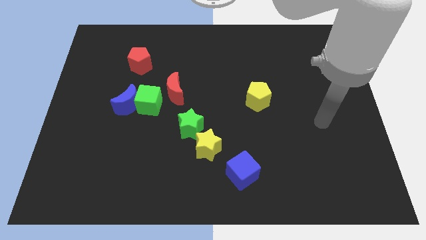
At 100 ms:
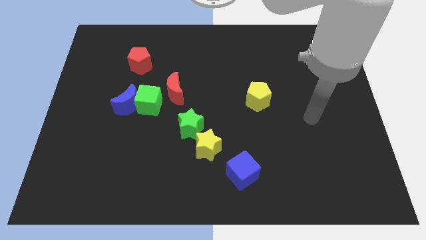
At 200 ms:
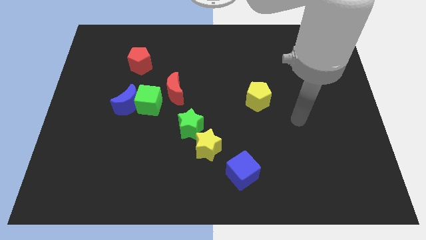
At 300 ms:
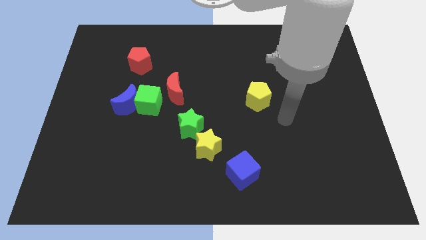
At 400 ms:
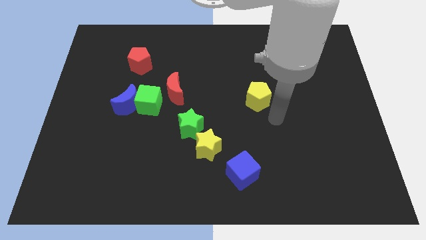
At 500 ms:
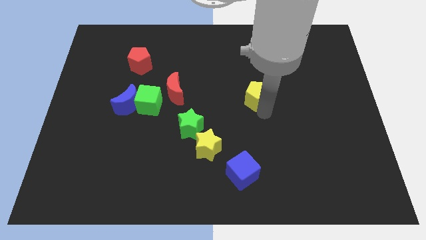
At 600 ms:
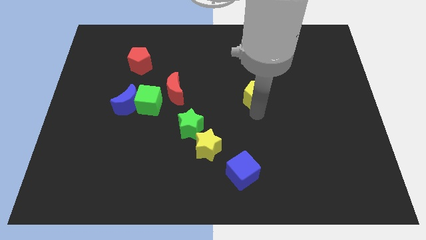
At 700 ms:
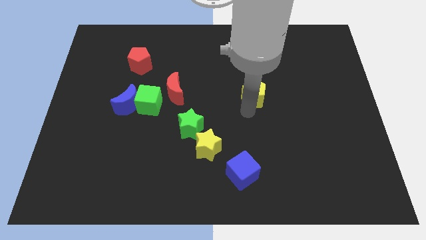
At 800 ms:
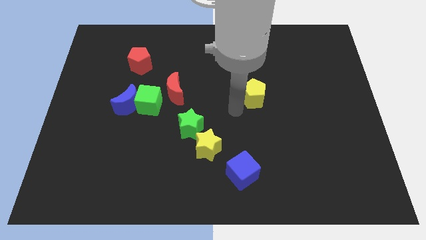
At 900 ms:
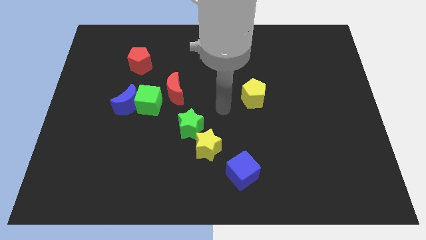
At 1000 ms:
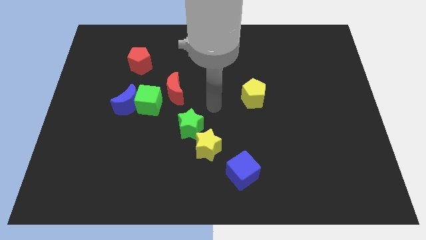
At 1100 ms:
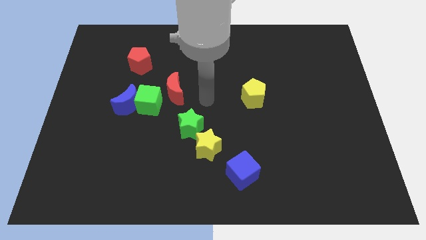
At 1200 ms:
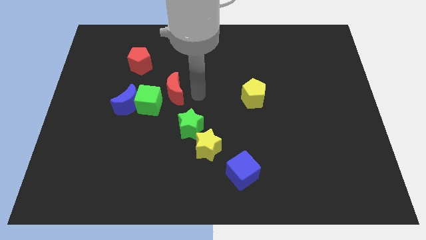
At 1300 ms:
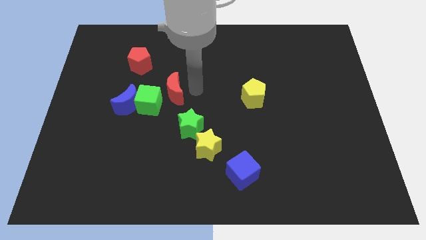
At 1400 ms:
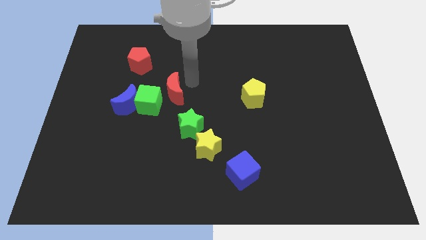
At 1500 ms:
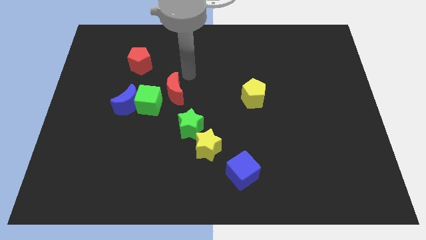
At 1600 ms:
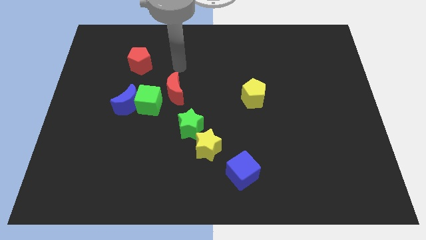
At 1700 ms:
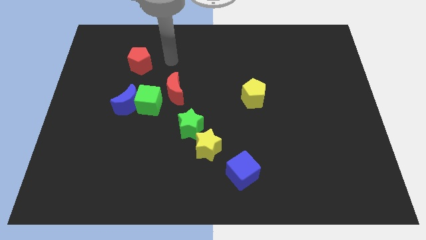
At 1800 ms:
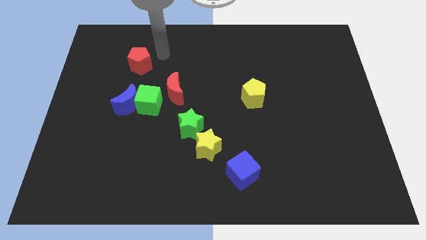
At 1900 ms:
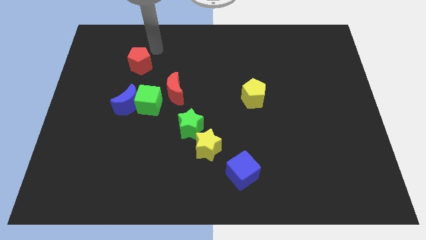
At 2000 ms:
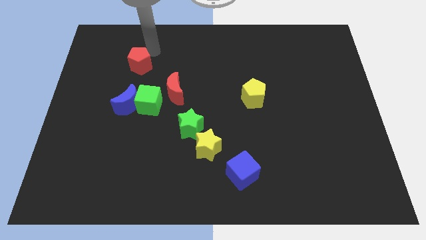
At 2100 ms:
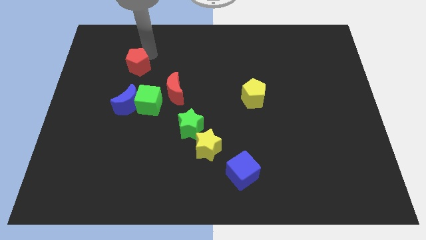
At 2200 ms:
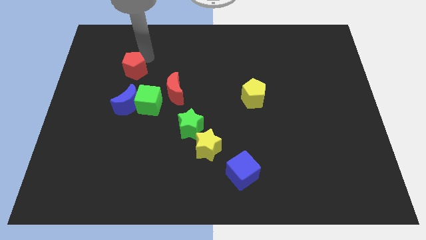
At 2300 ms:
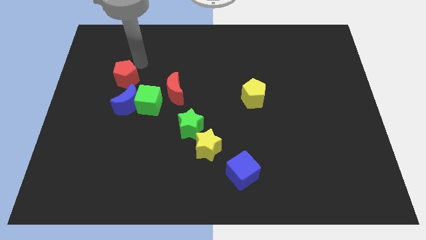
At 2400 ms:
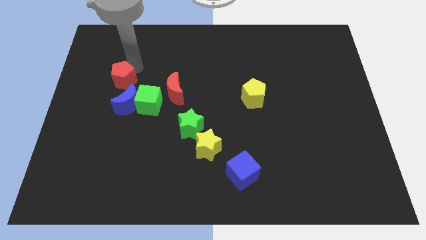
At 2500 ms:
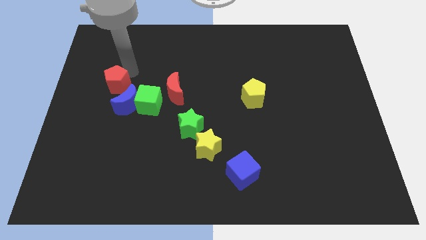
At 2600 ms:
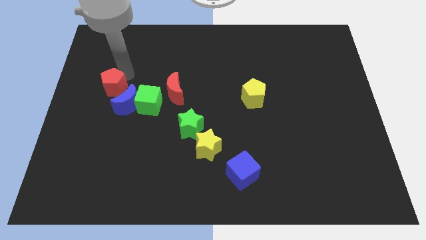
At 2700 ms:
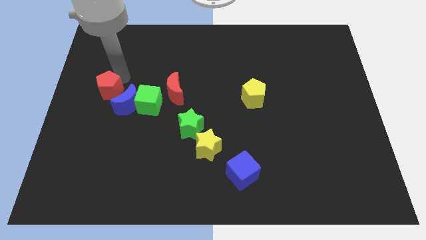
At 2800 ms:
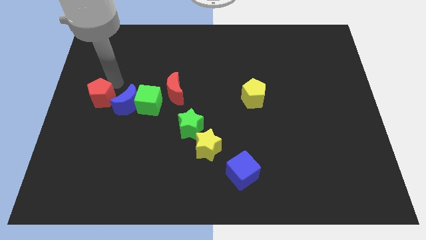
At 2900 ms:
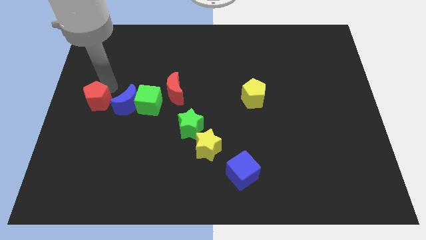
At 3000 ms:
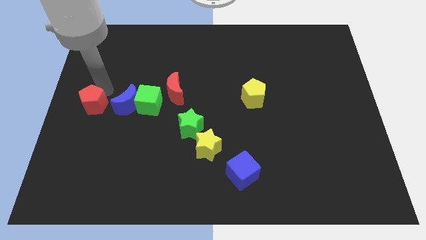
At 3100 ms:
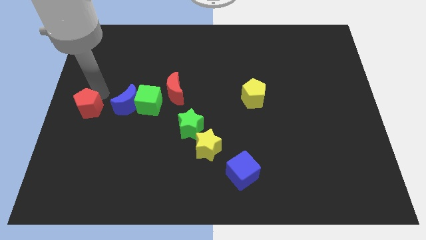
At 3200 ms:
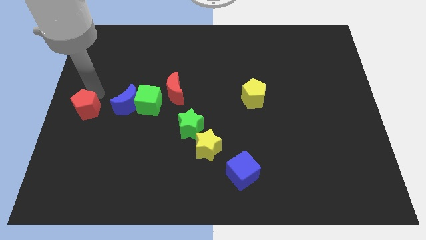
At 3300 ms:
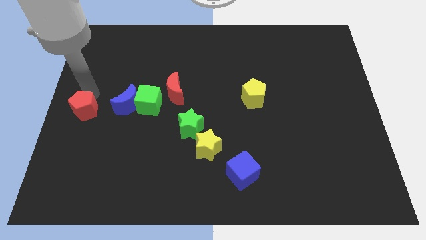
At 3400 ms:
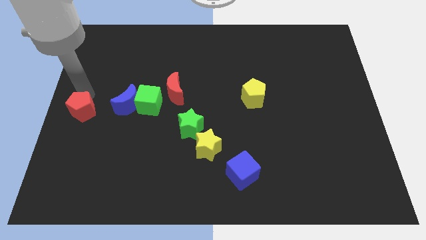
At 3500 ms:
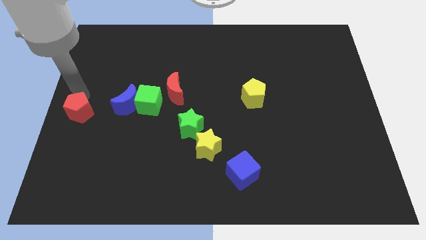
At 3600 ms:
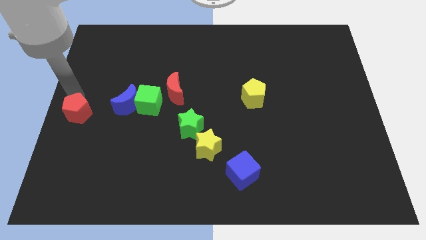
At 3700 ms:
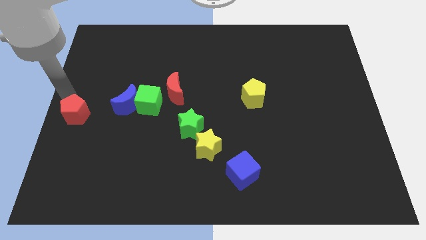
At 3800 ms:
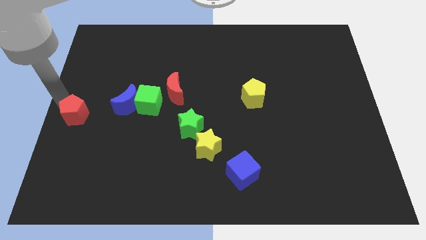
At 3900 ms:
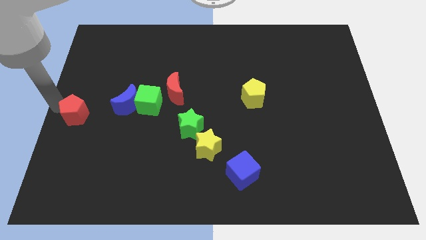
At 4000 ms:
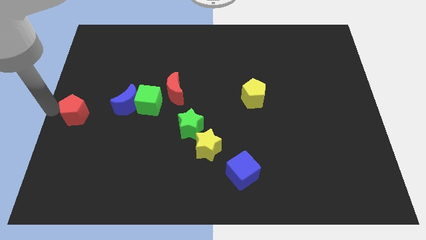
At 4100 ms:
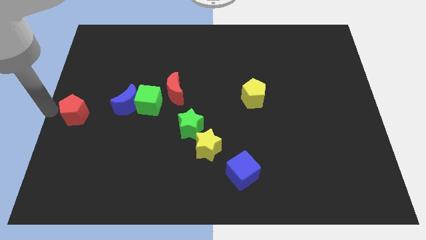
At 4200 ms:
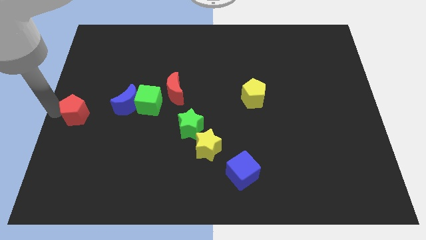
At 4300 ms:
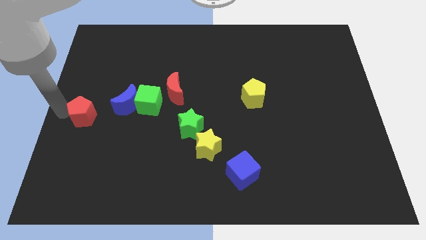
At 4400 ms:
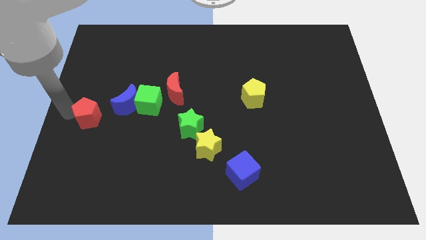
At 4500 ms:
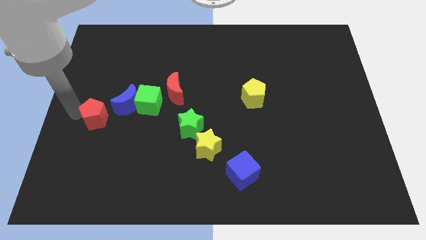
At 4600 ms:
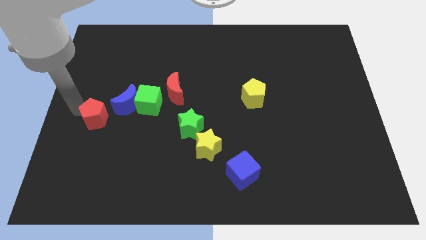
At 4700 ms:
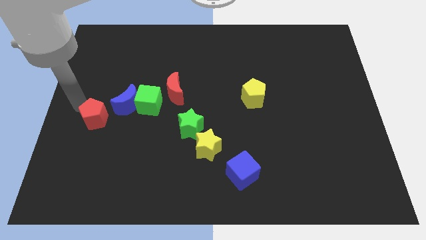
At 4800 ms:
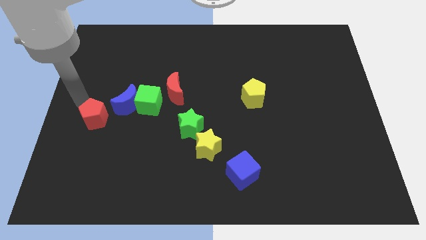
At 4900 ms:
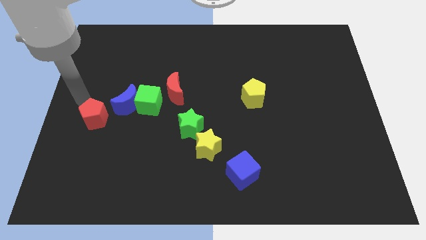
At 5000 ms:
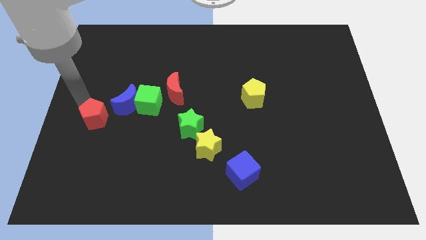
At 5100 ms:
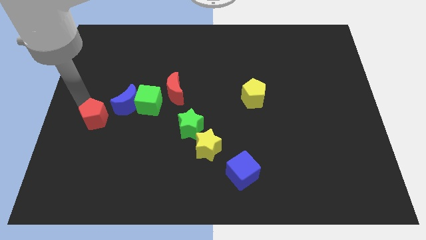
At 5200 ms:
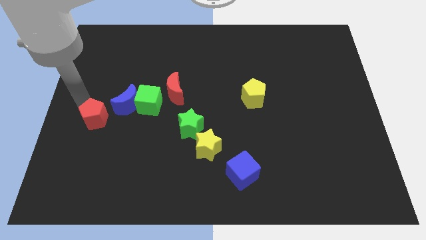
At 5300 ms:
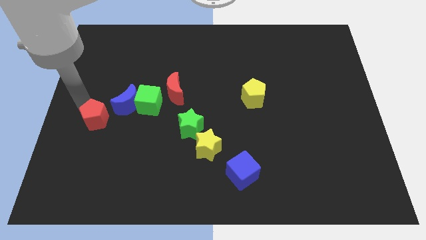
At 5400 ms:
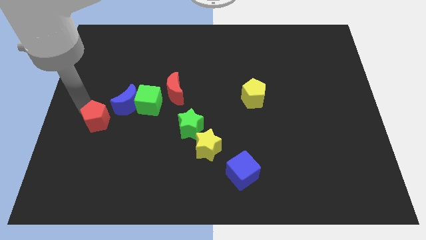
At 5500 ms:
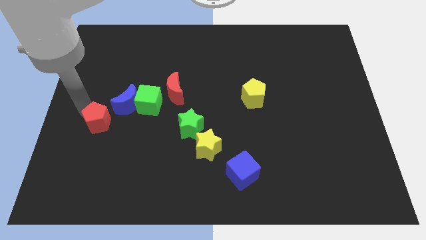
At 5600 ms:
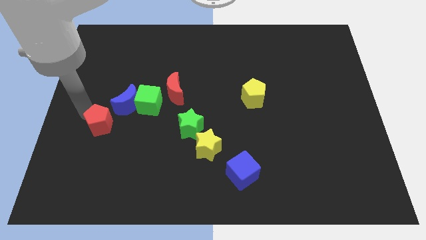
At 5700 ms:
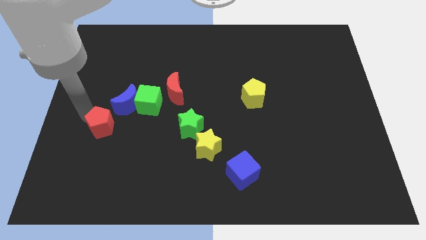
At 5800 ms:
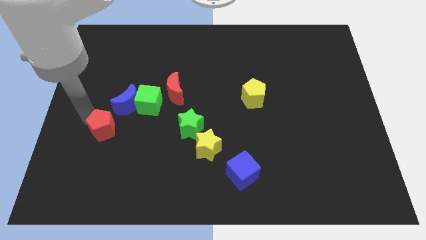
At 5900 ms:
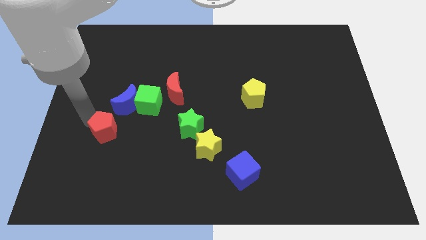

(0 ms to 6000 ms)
push the red pentagon downwards

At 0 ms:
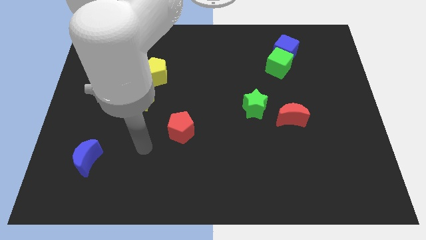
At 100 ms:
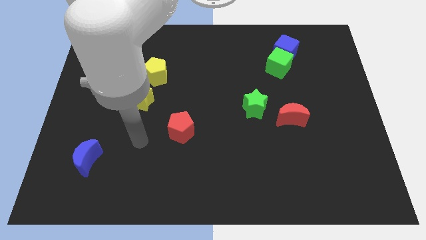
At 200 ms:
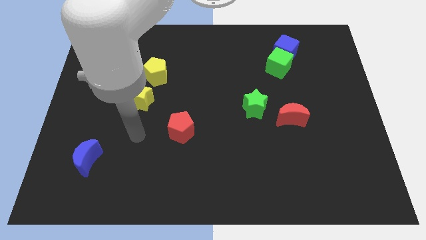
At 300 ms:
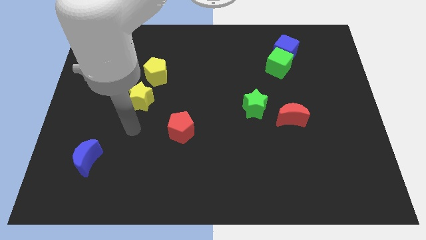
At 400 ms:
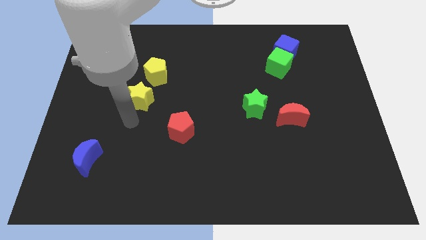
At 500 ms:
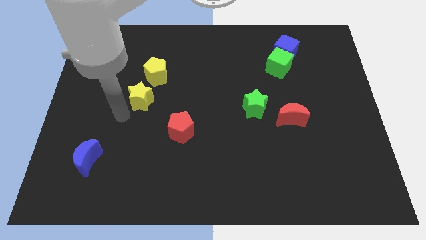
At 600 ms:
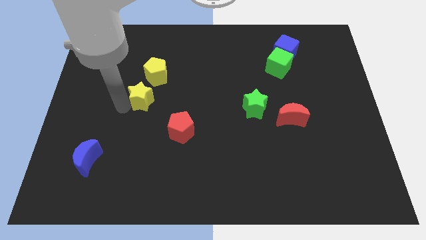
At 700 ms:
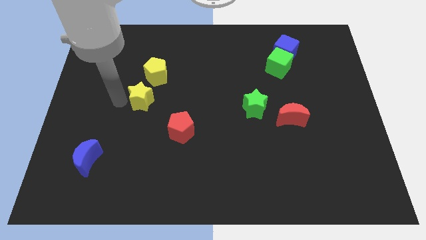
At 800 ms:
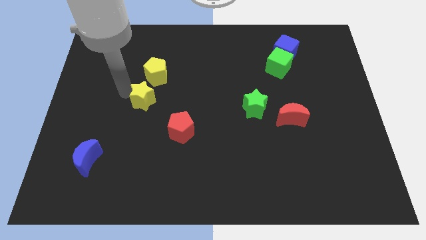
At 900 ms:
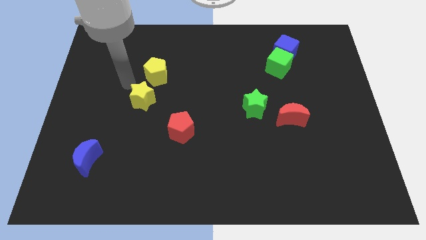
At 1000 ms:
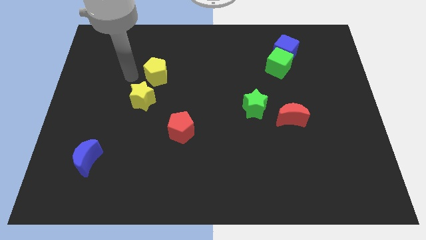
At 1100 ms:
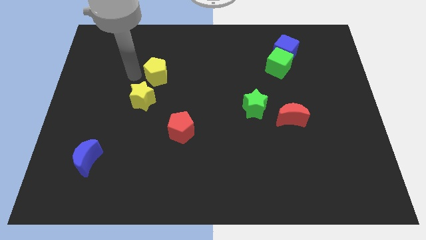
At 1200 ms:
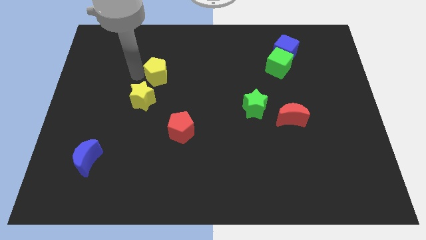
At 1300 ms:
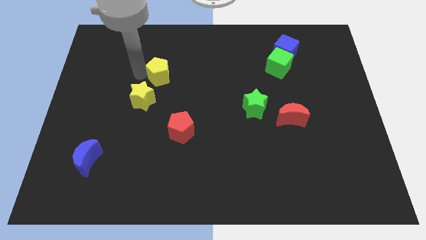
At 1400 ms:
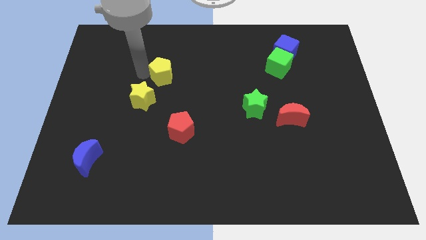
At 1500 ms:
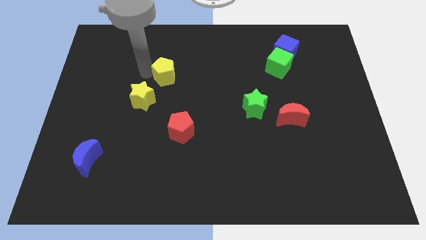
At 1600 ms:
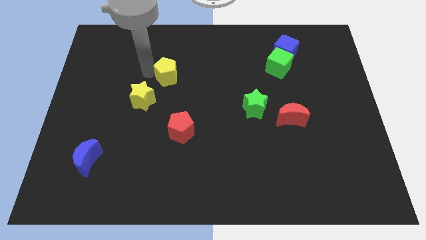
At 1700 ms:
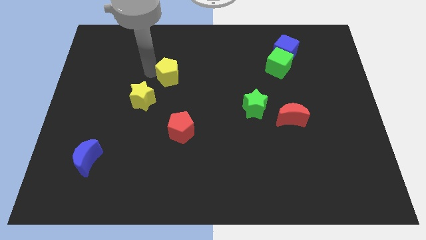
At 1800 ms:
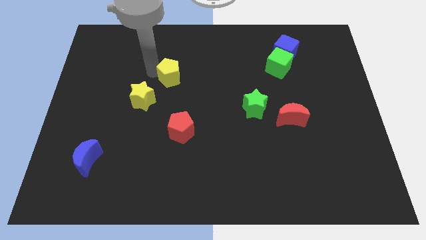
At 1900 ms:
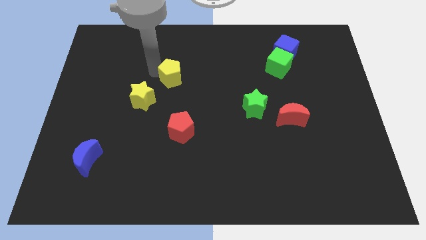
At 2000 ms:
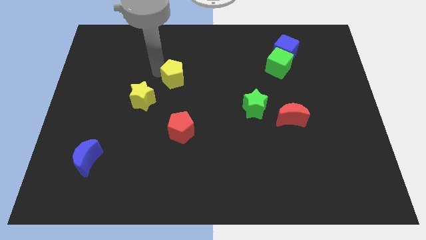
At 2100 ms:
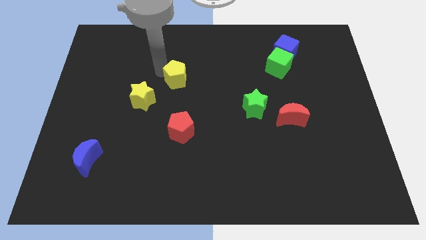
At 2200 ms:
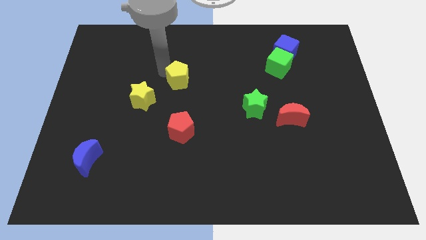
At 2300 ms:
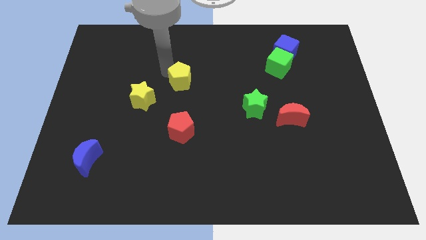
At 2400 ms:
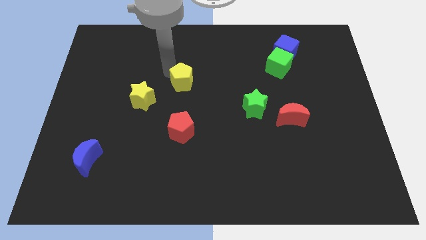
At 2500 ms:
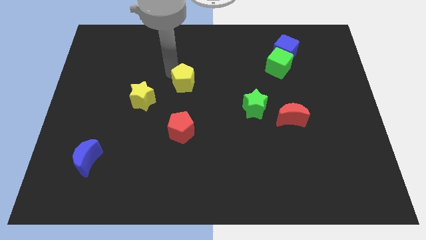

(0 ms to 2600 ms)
slide the yellow pentagon right a little bit
